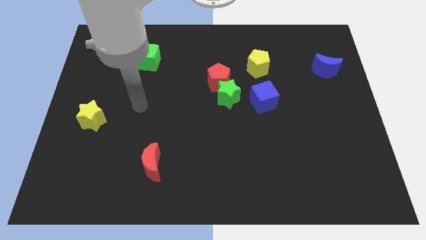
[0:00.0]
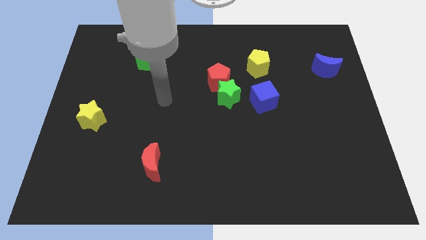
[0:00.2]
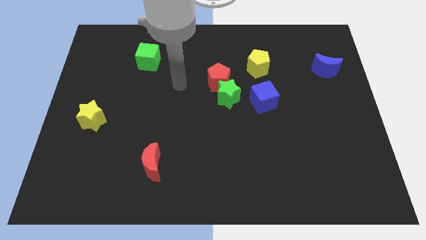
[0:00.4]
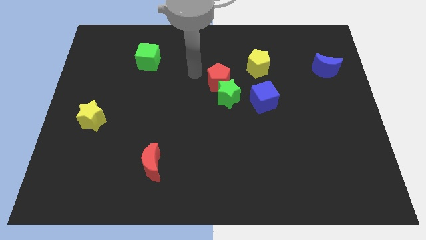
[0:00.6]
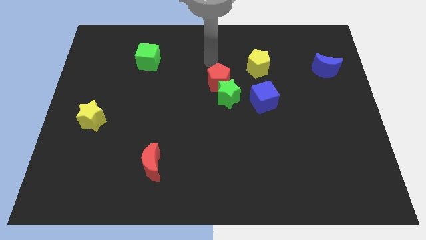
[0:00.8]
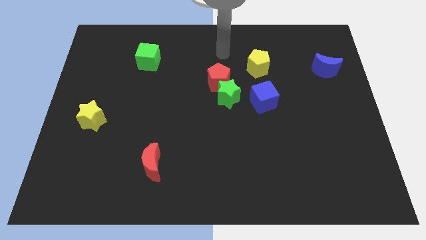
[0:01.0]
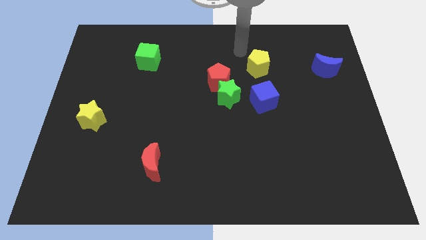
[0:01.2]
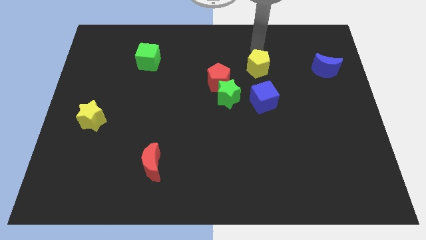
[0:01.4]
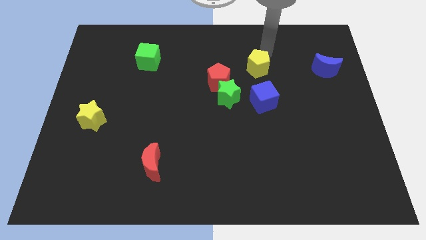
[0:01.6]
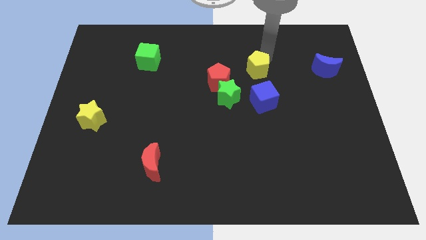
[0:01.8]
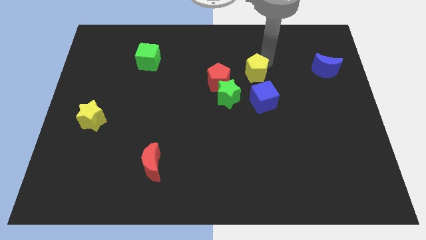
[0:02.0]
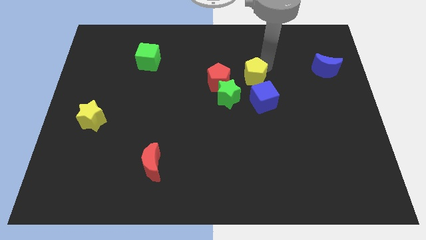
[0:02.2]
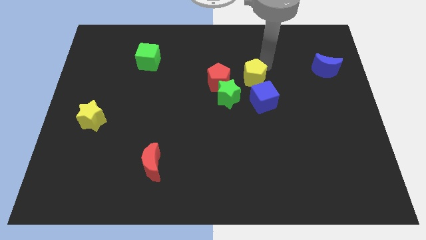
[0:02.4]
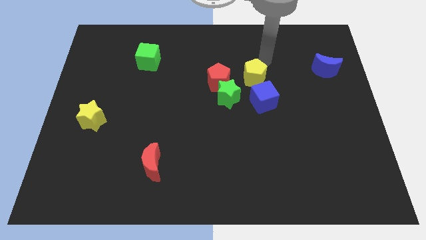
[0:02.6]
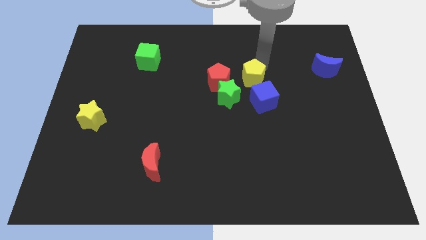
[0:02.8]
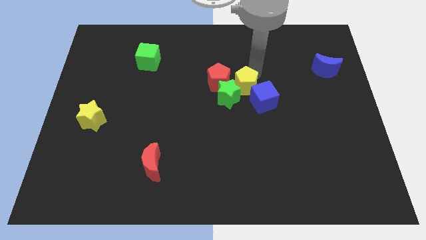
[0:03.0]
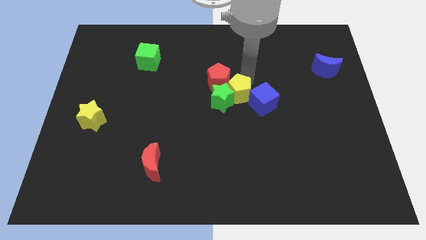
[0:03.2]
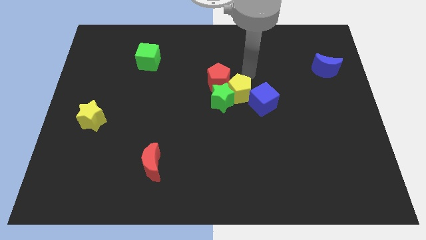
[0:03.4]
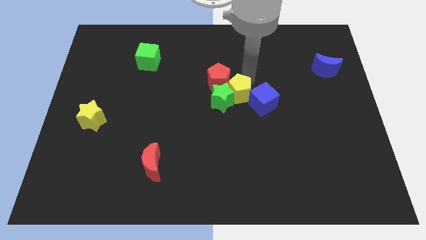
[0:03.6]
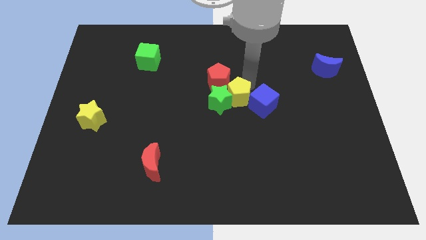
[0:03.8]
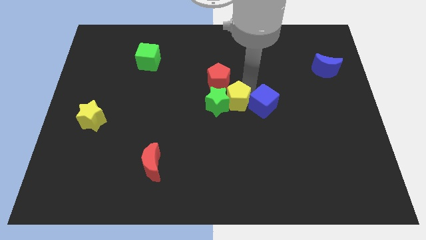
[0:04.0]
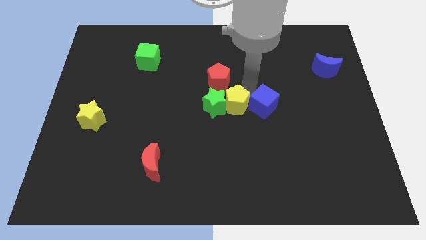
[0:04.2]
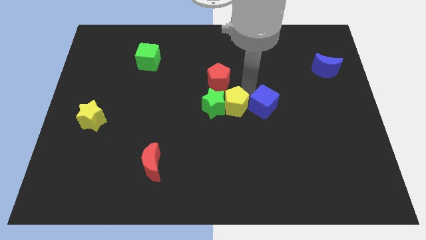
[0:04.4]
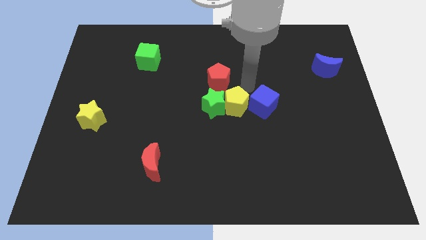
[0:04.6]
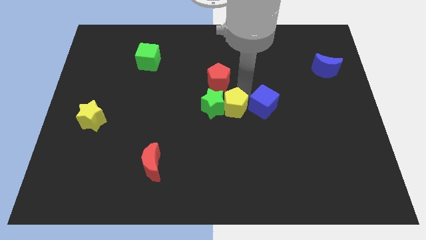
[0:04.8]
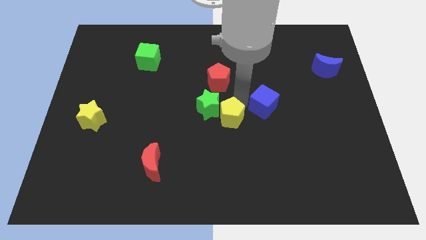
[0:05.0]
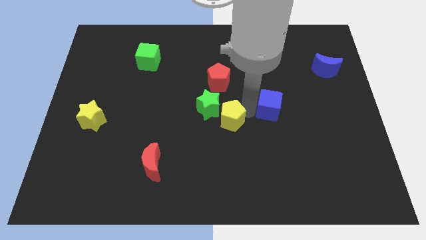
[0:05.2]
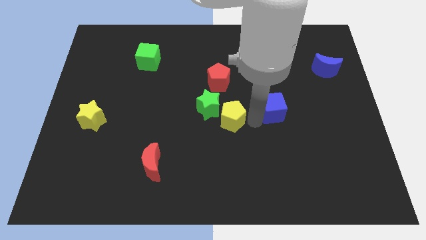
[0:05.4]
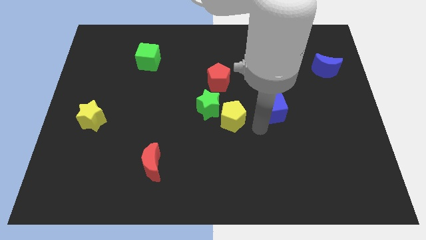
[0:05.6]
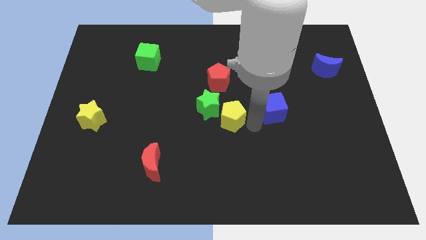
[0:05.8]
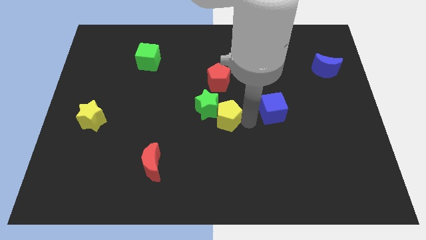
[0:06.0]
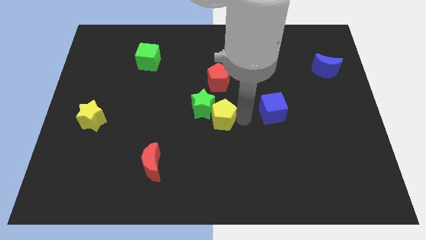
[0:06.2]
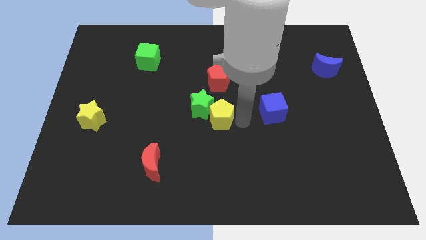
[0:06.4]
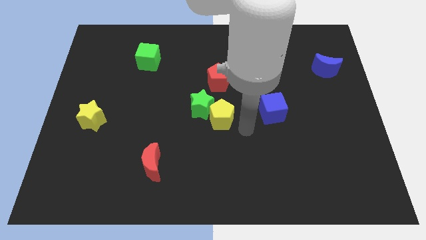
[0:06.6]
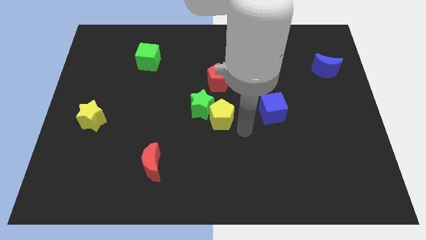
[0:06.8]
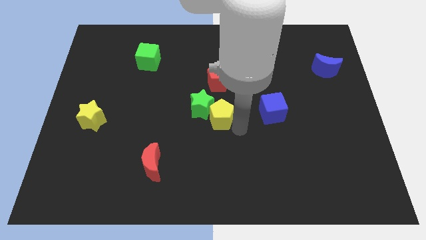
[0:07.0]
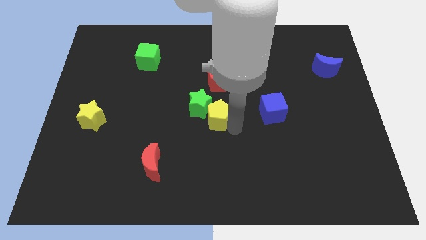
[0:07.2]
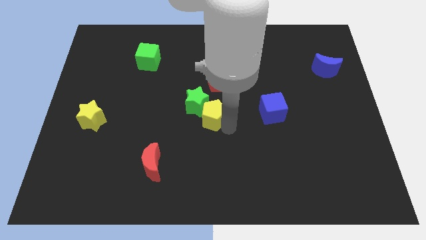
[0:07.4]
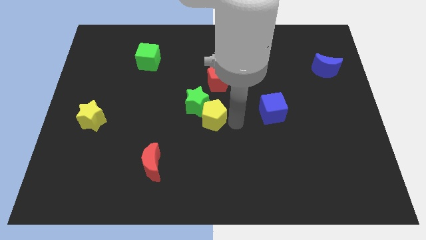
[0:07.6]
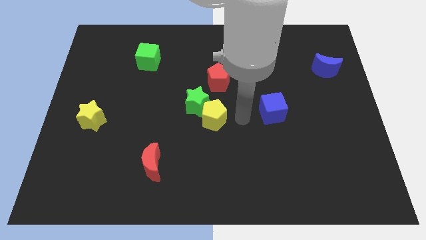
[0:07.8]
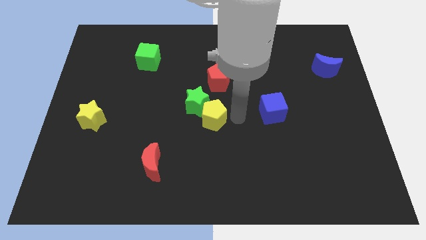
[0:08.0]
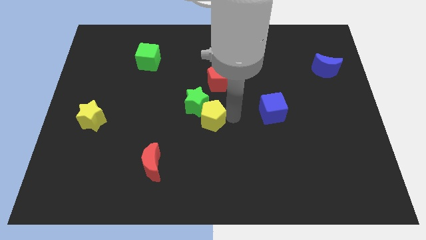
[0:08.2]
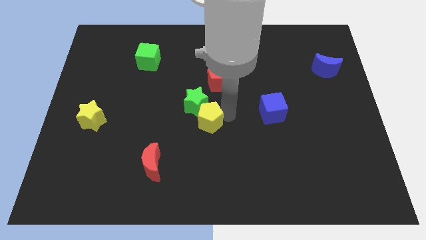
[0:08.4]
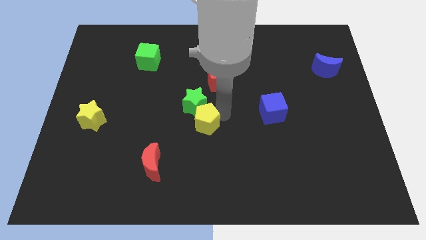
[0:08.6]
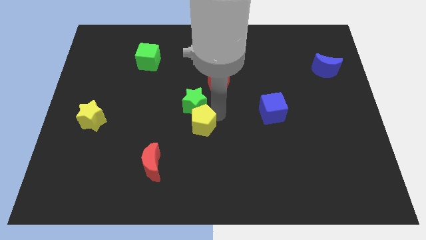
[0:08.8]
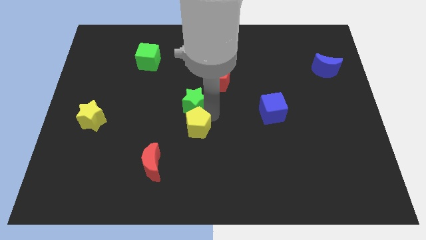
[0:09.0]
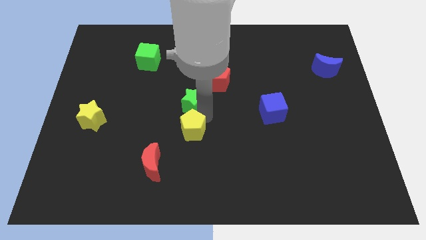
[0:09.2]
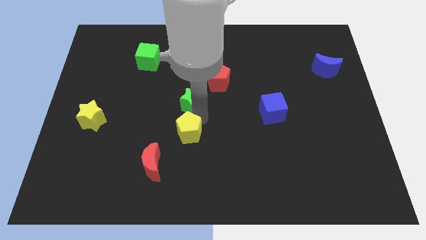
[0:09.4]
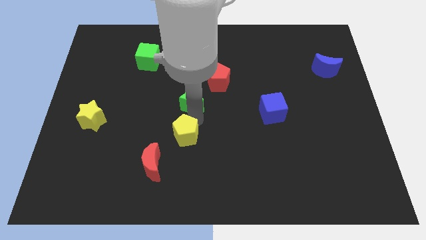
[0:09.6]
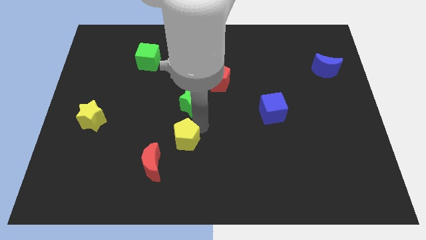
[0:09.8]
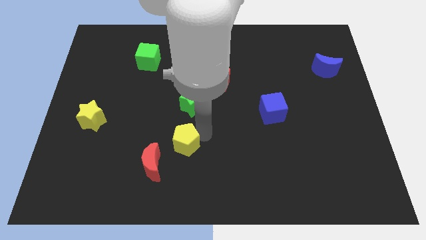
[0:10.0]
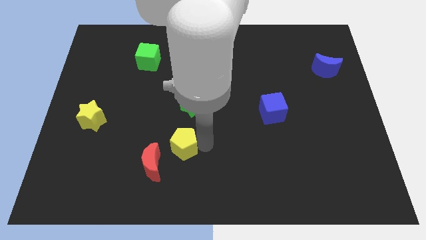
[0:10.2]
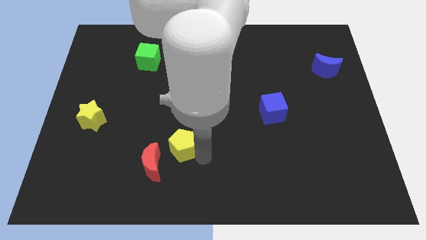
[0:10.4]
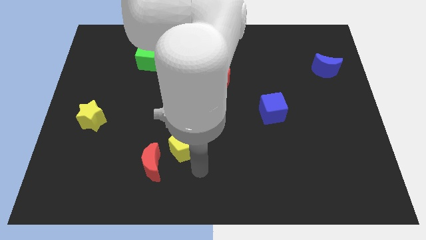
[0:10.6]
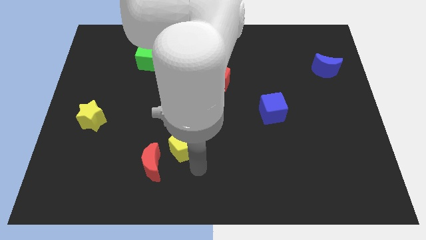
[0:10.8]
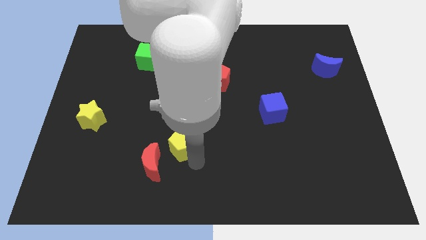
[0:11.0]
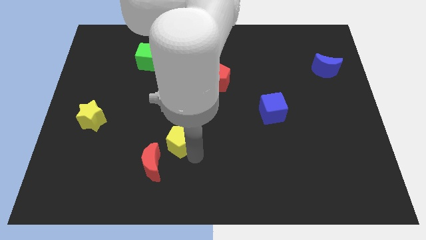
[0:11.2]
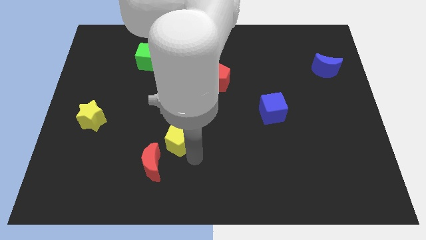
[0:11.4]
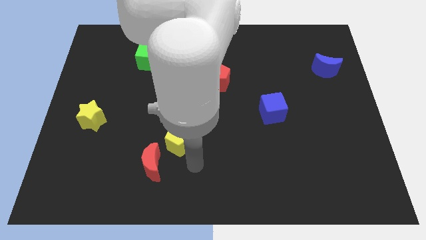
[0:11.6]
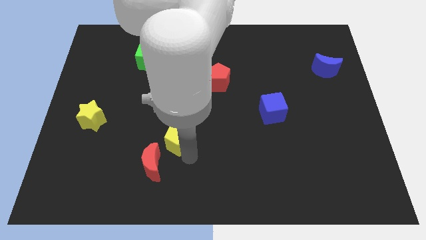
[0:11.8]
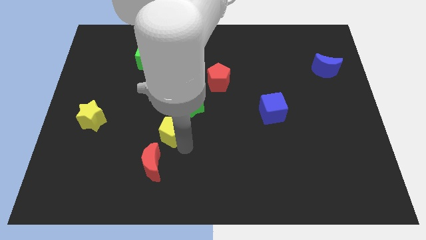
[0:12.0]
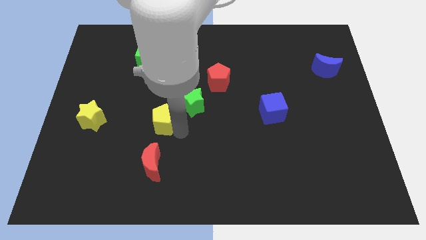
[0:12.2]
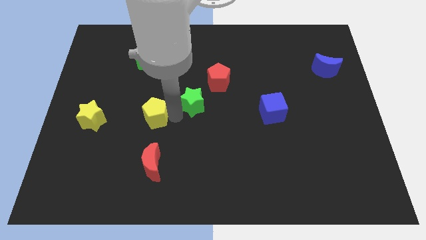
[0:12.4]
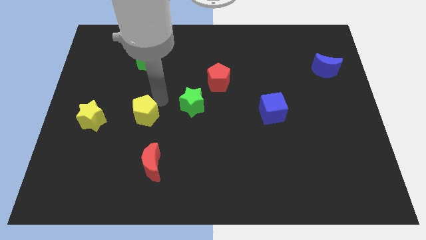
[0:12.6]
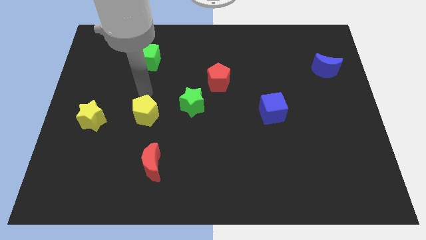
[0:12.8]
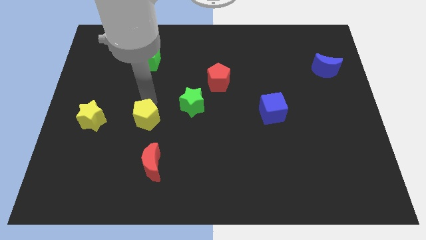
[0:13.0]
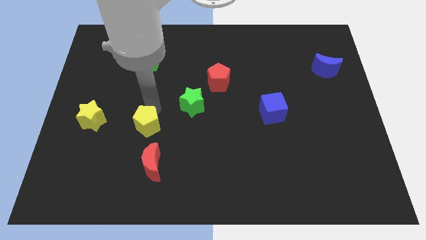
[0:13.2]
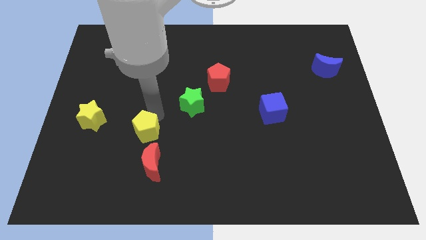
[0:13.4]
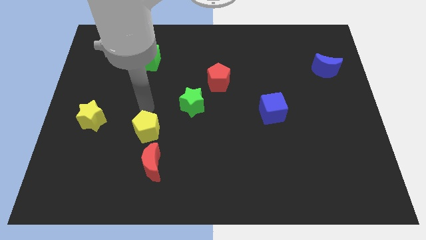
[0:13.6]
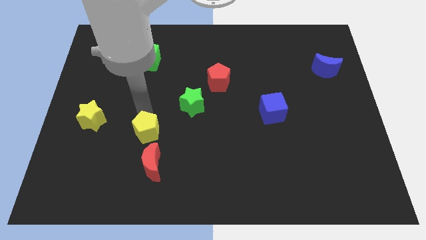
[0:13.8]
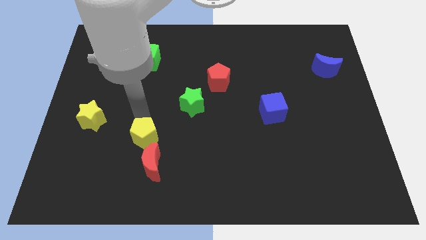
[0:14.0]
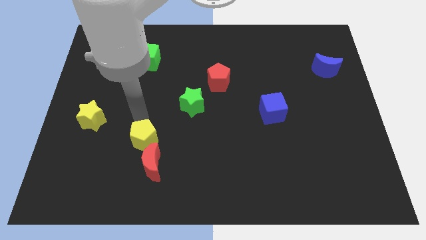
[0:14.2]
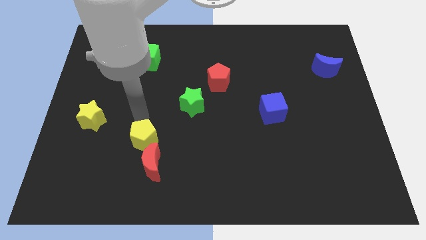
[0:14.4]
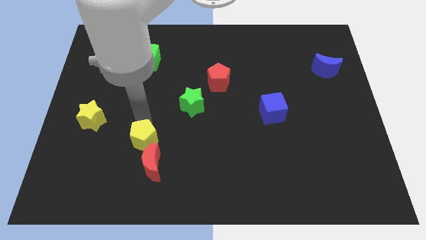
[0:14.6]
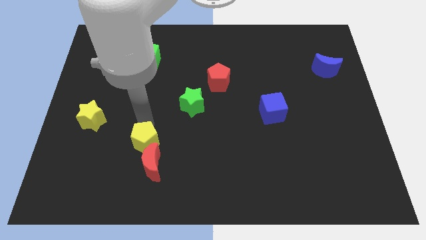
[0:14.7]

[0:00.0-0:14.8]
slide the yellow pentagon close to the red moon
